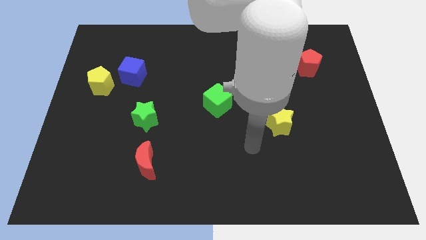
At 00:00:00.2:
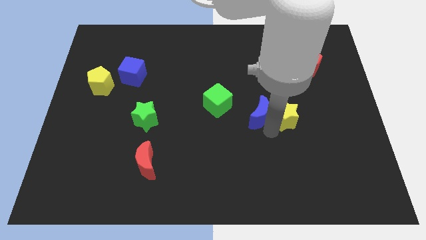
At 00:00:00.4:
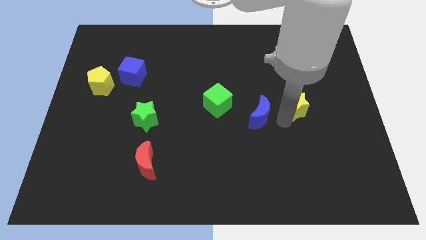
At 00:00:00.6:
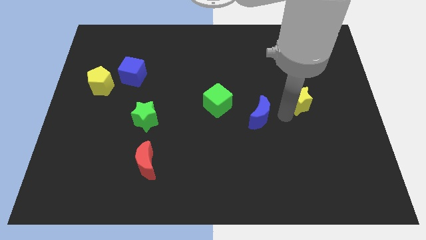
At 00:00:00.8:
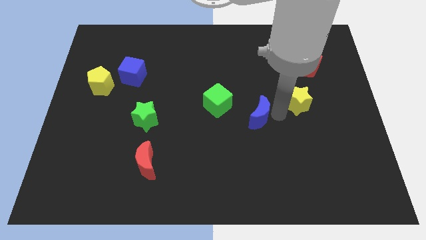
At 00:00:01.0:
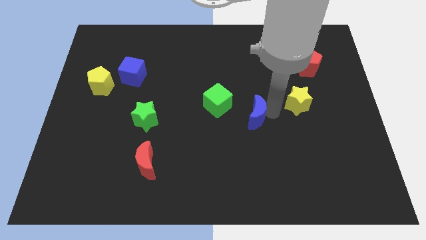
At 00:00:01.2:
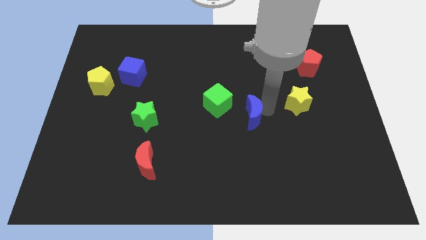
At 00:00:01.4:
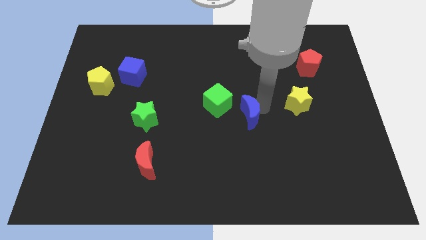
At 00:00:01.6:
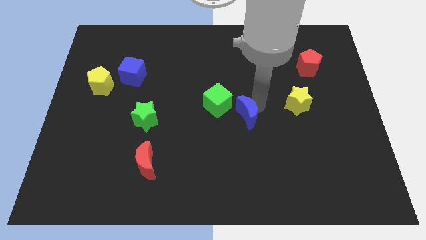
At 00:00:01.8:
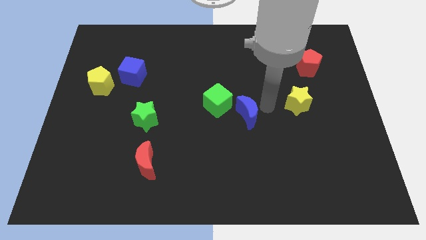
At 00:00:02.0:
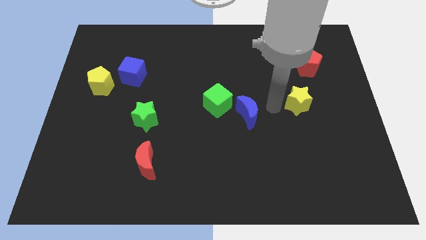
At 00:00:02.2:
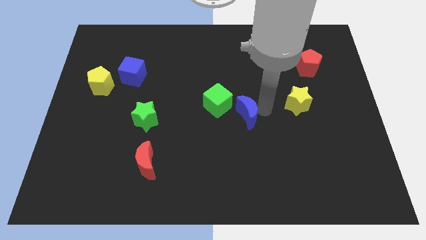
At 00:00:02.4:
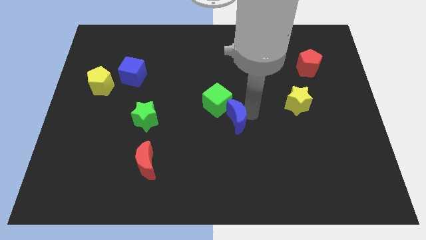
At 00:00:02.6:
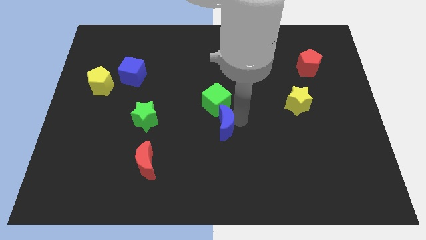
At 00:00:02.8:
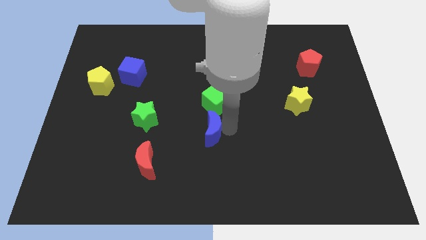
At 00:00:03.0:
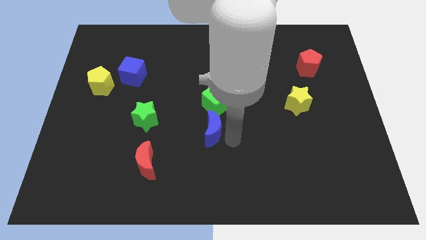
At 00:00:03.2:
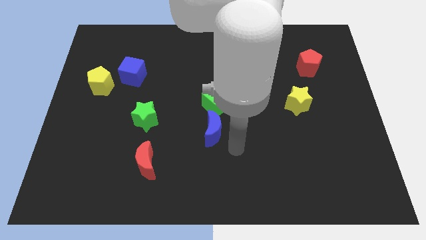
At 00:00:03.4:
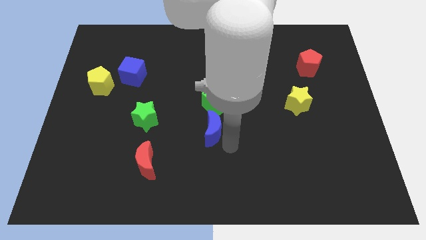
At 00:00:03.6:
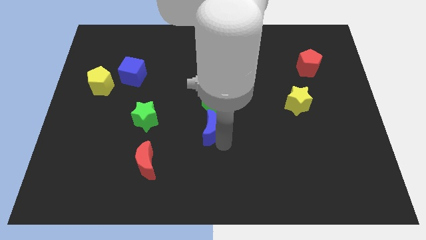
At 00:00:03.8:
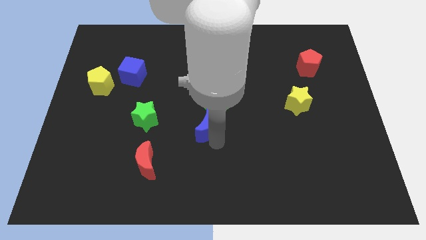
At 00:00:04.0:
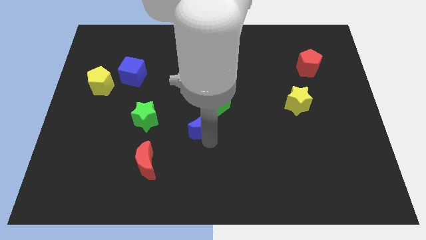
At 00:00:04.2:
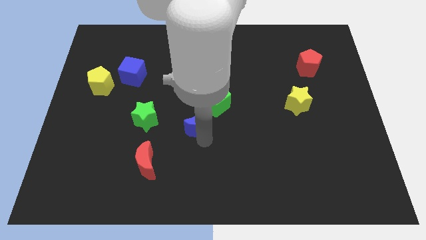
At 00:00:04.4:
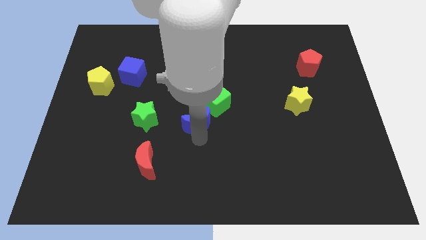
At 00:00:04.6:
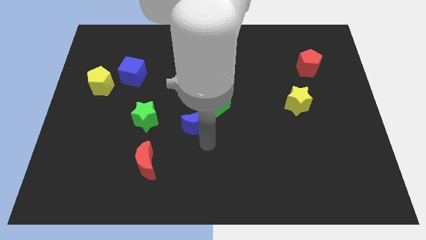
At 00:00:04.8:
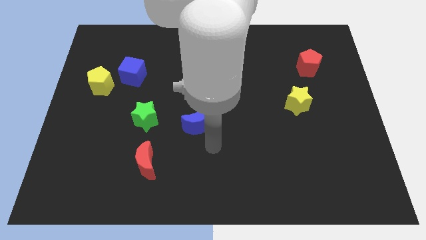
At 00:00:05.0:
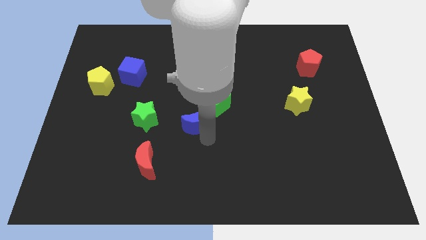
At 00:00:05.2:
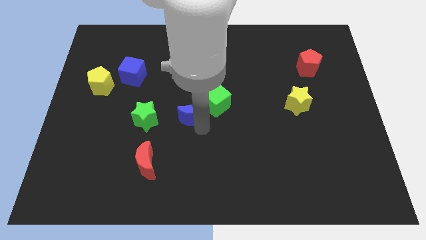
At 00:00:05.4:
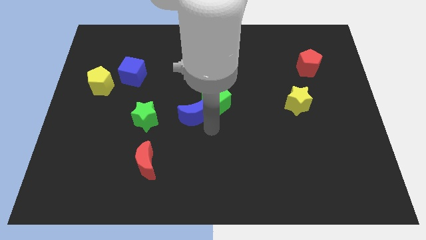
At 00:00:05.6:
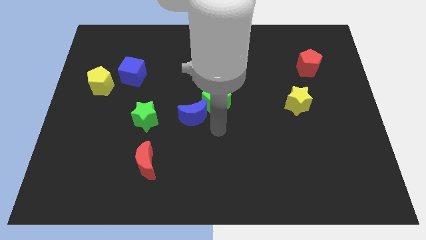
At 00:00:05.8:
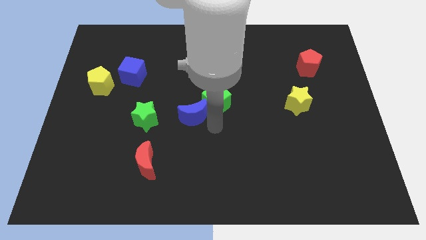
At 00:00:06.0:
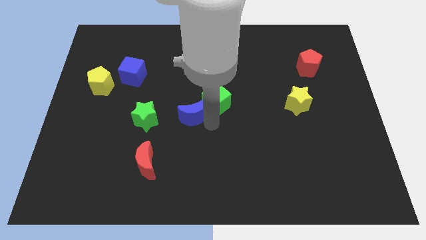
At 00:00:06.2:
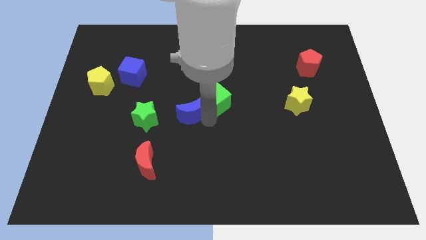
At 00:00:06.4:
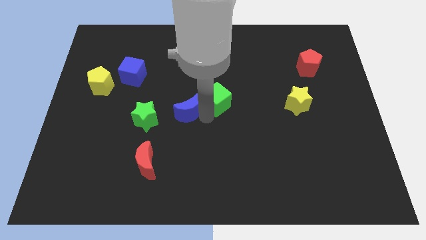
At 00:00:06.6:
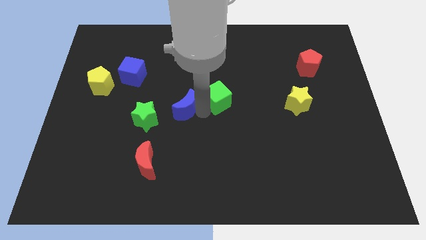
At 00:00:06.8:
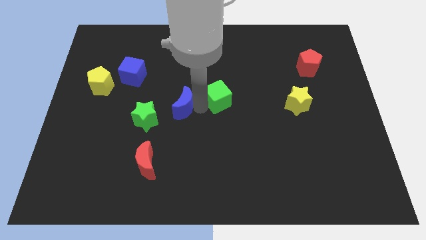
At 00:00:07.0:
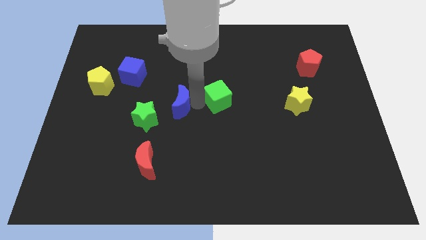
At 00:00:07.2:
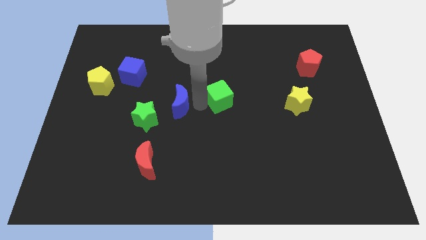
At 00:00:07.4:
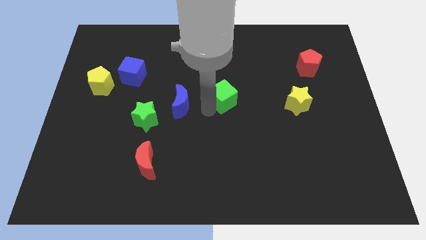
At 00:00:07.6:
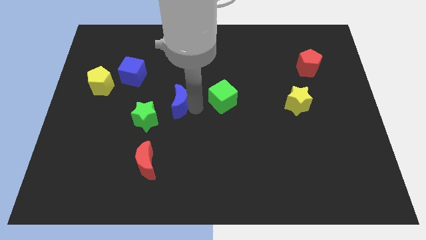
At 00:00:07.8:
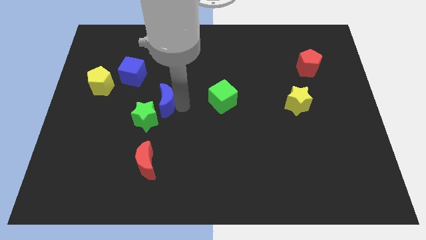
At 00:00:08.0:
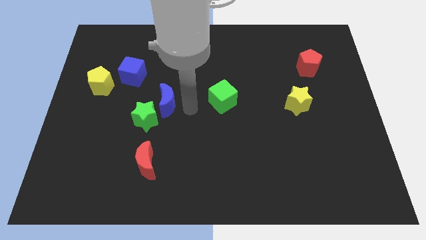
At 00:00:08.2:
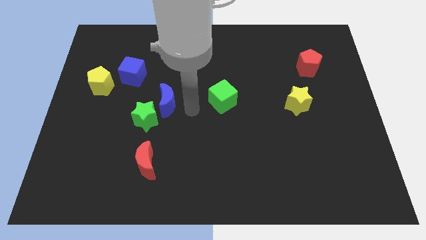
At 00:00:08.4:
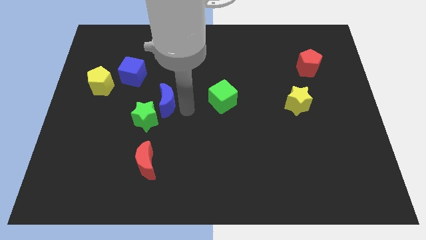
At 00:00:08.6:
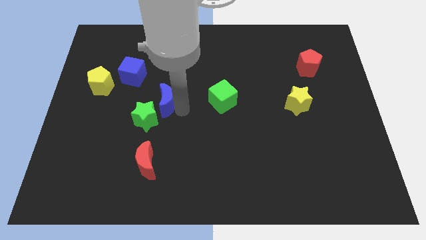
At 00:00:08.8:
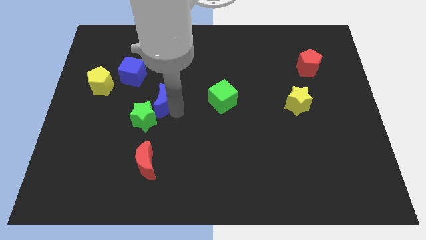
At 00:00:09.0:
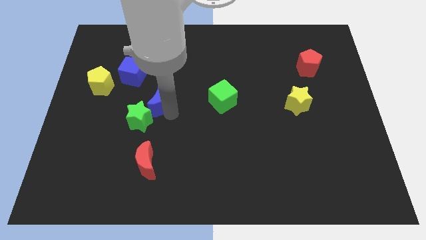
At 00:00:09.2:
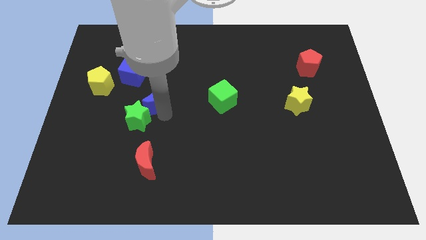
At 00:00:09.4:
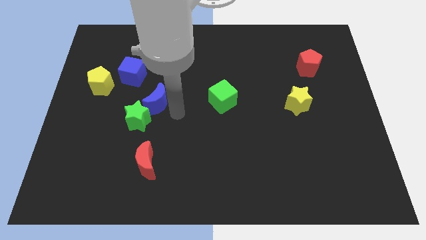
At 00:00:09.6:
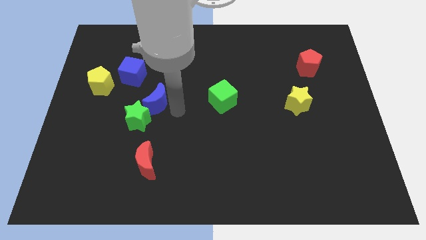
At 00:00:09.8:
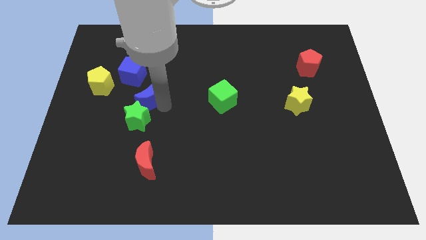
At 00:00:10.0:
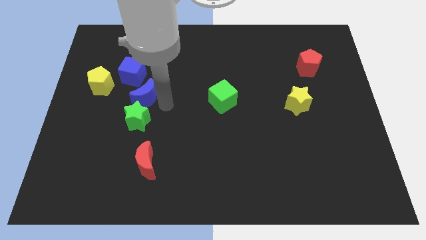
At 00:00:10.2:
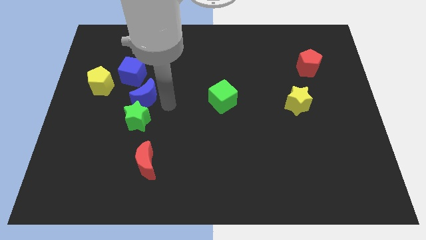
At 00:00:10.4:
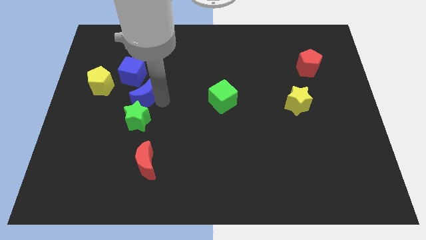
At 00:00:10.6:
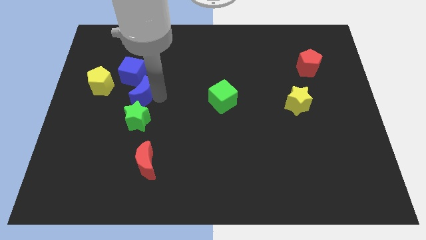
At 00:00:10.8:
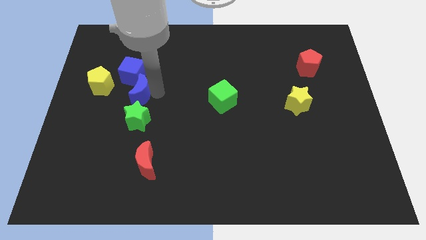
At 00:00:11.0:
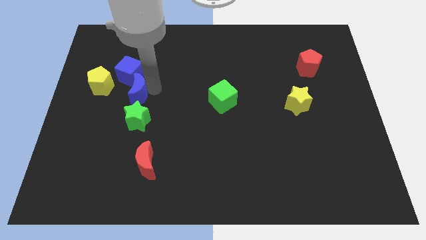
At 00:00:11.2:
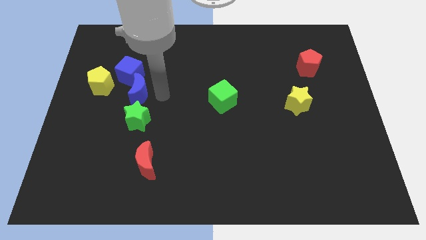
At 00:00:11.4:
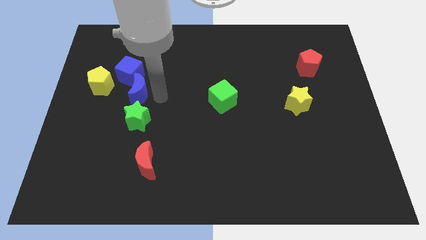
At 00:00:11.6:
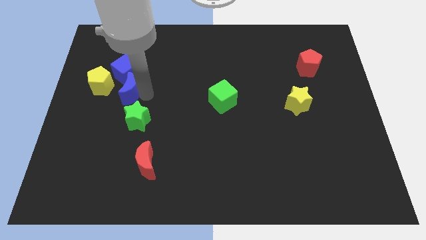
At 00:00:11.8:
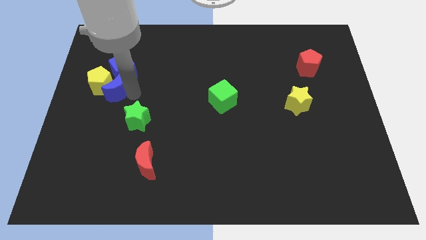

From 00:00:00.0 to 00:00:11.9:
move the blue moon towards the yellow pentagon

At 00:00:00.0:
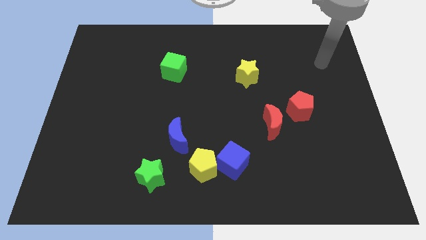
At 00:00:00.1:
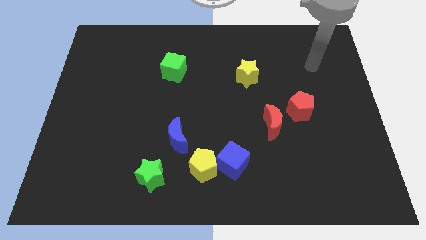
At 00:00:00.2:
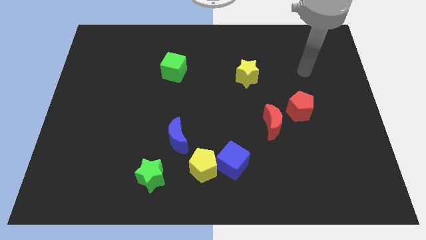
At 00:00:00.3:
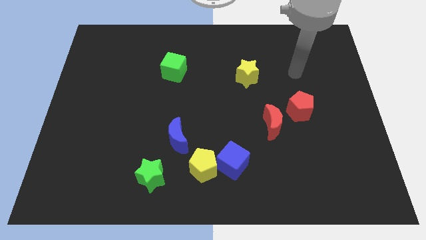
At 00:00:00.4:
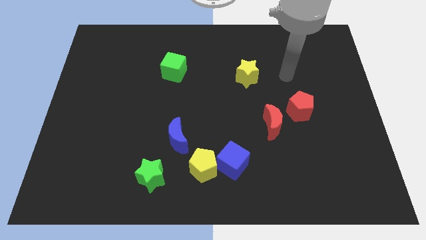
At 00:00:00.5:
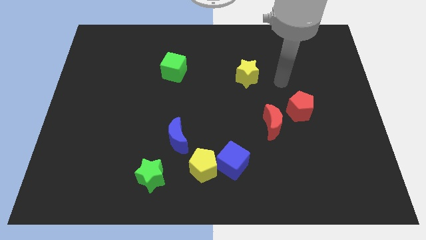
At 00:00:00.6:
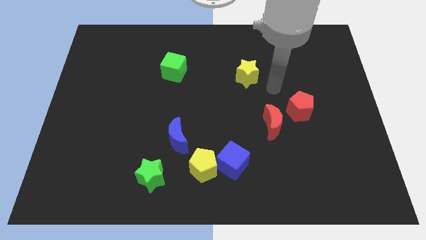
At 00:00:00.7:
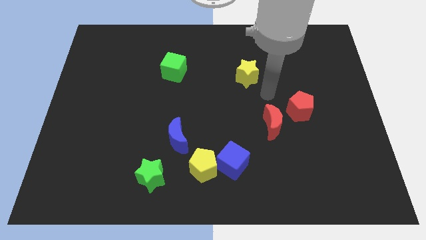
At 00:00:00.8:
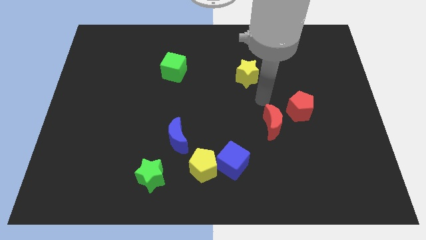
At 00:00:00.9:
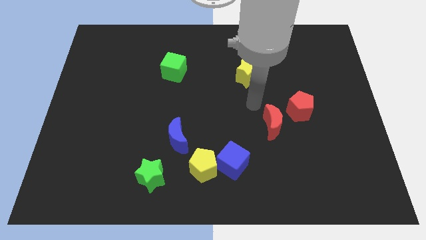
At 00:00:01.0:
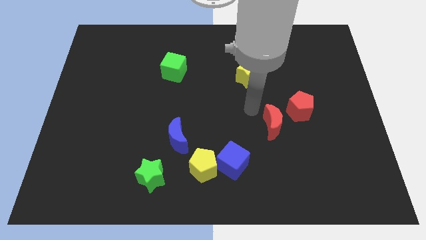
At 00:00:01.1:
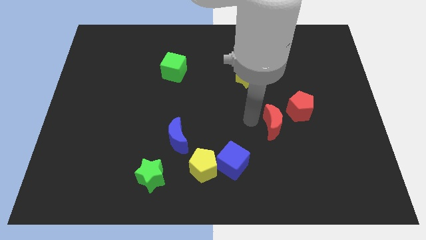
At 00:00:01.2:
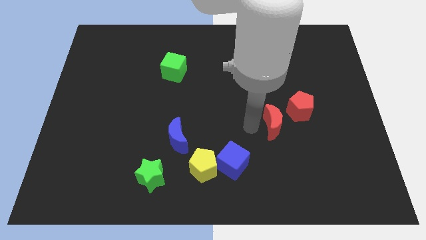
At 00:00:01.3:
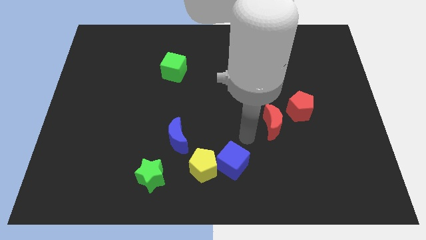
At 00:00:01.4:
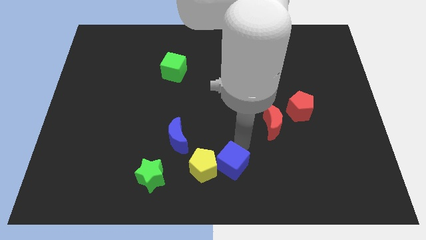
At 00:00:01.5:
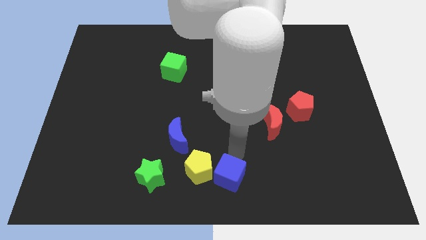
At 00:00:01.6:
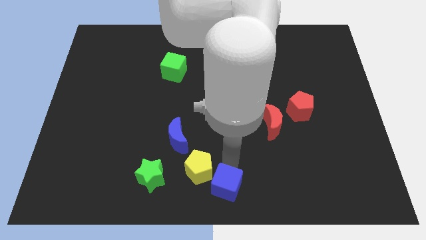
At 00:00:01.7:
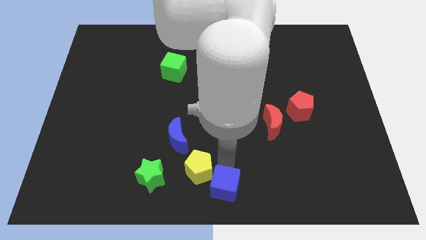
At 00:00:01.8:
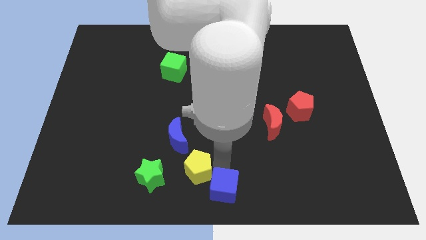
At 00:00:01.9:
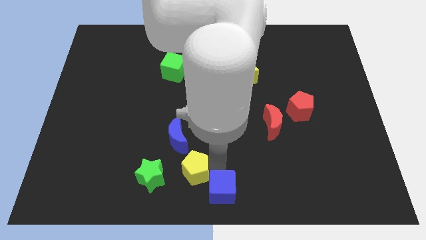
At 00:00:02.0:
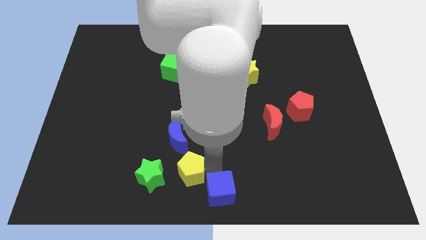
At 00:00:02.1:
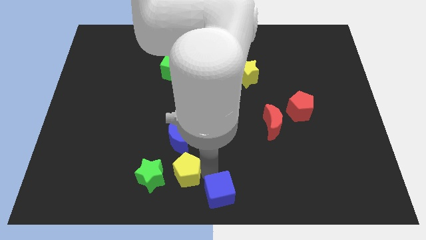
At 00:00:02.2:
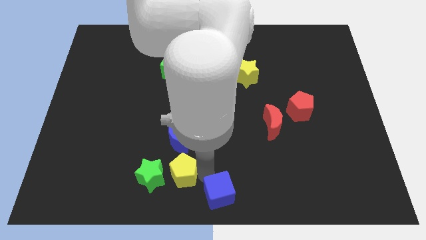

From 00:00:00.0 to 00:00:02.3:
push the yellow pentagon towards the green star
